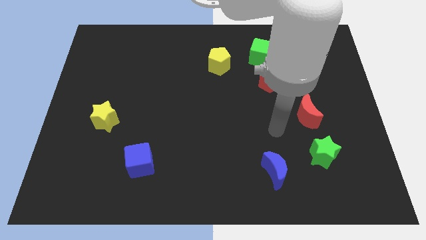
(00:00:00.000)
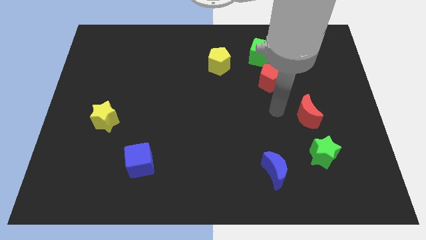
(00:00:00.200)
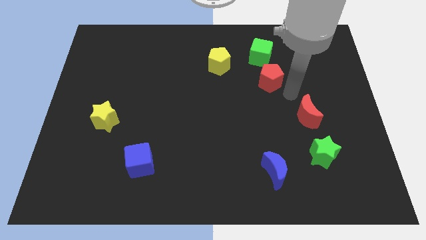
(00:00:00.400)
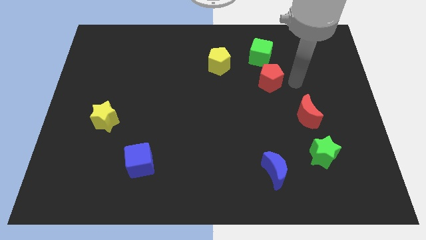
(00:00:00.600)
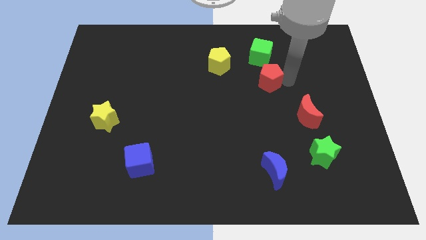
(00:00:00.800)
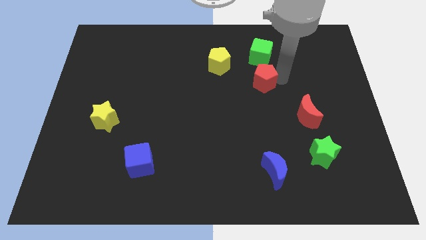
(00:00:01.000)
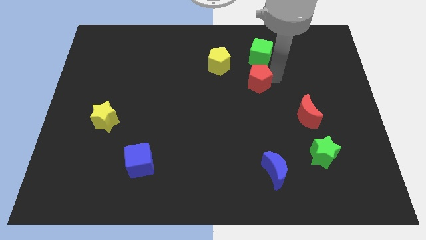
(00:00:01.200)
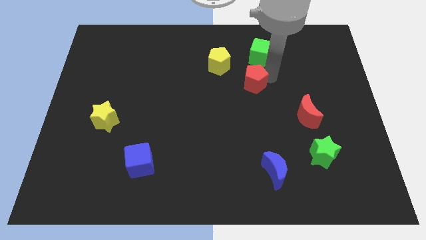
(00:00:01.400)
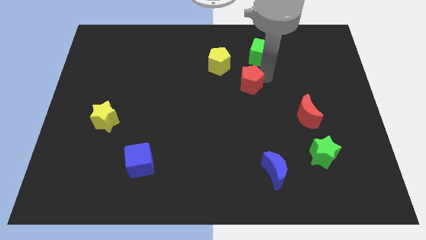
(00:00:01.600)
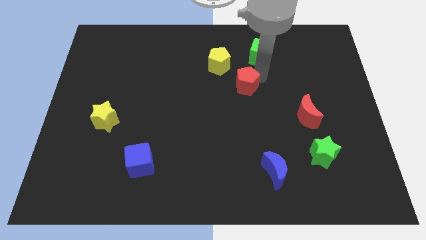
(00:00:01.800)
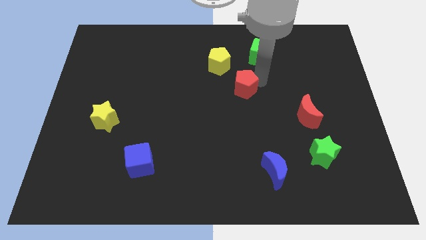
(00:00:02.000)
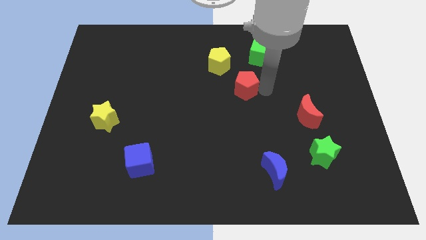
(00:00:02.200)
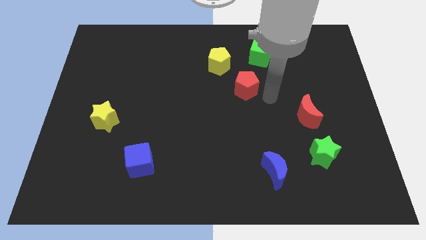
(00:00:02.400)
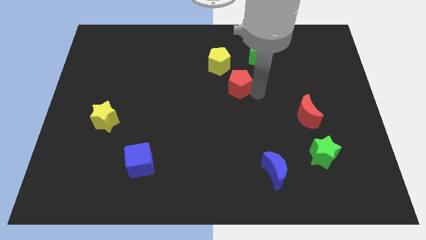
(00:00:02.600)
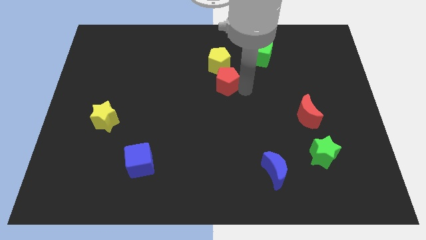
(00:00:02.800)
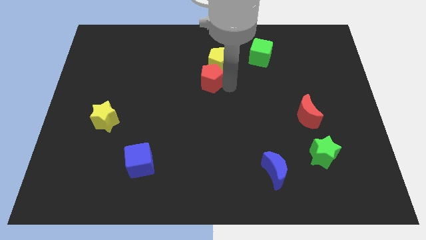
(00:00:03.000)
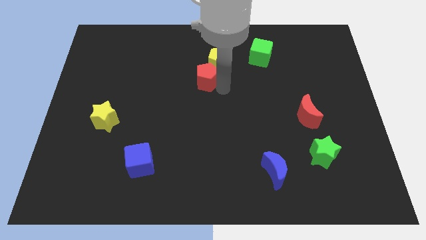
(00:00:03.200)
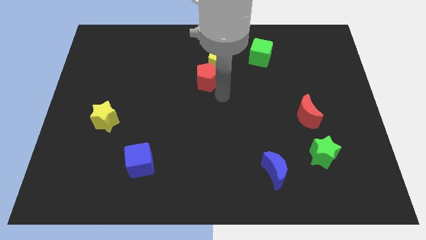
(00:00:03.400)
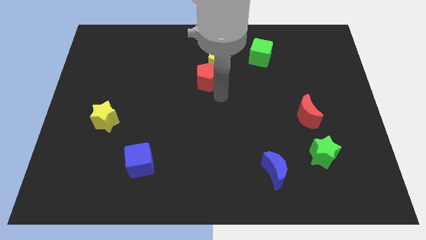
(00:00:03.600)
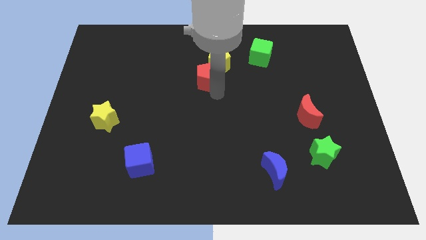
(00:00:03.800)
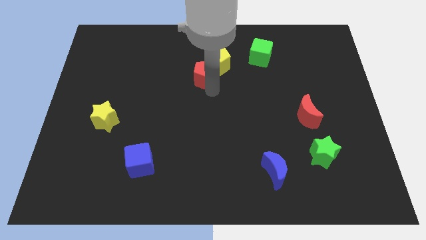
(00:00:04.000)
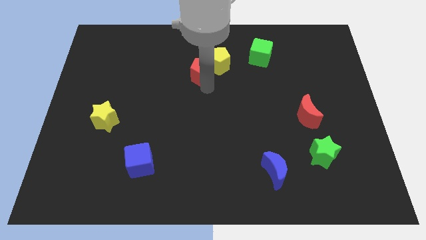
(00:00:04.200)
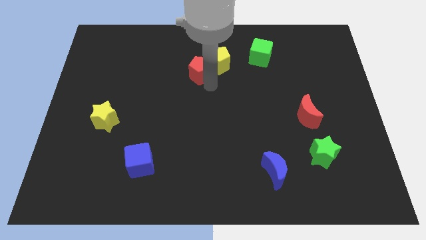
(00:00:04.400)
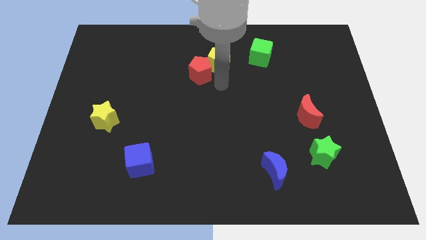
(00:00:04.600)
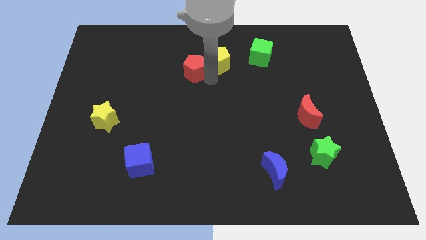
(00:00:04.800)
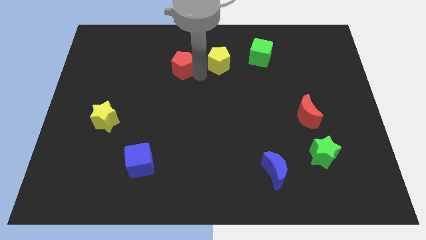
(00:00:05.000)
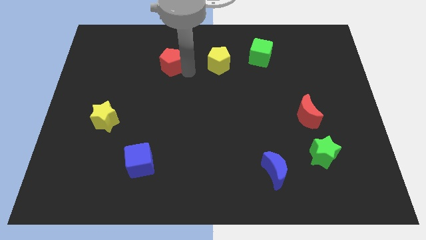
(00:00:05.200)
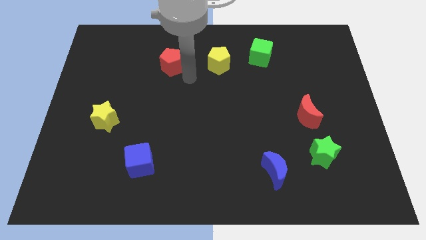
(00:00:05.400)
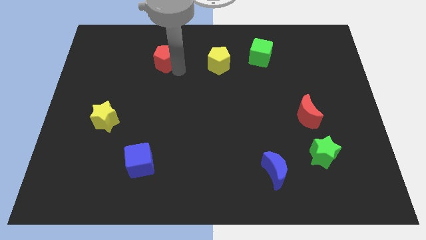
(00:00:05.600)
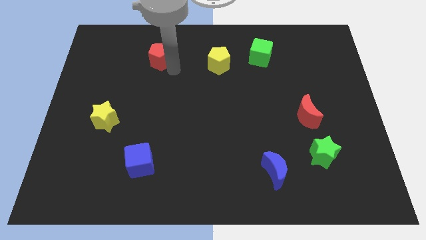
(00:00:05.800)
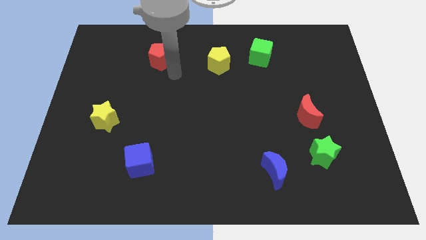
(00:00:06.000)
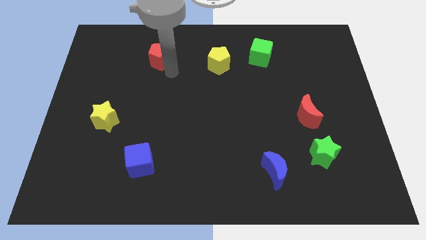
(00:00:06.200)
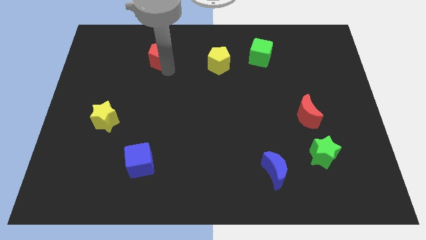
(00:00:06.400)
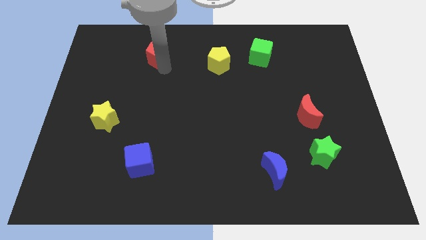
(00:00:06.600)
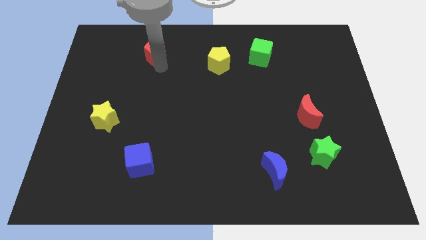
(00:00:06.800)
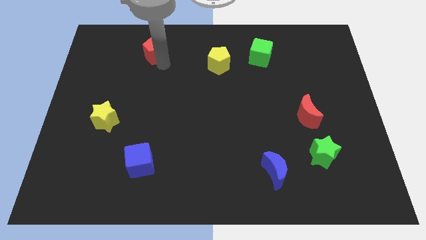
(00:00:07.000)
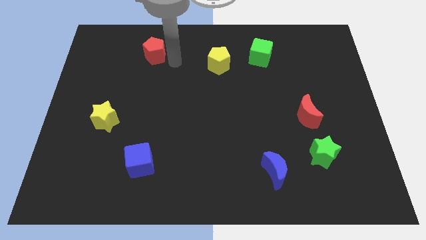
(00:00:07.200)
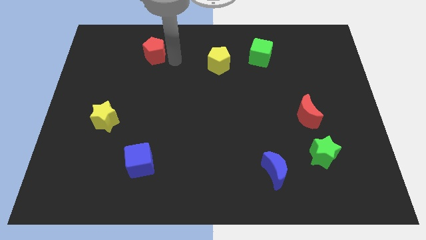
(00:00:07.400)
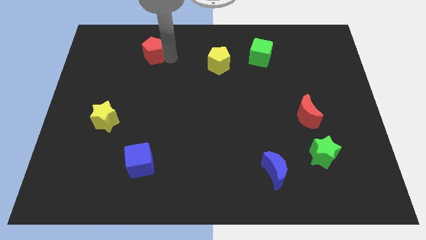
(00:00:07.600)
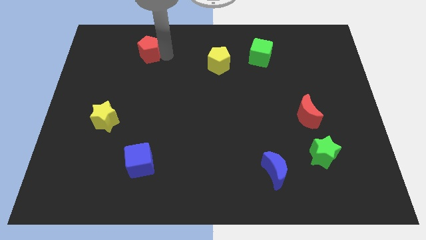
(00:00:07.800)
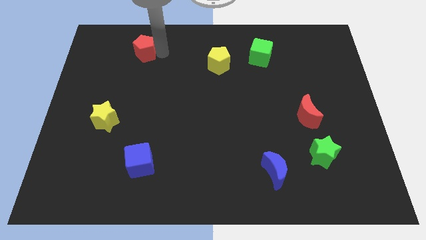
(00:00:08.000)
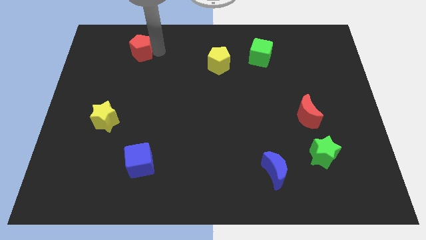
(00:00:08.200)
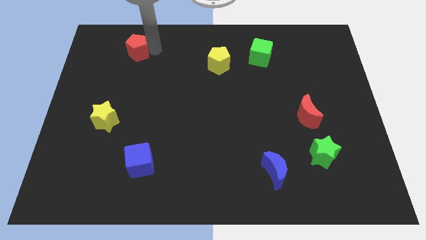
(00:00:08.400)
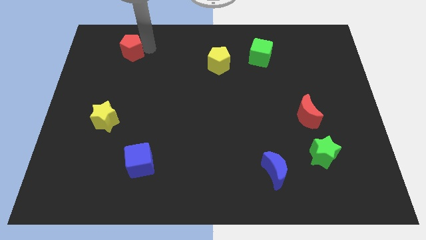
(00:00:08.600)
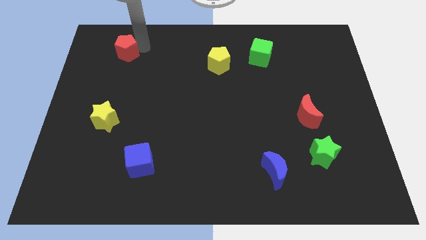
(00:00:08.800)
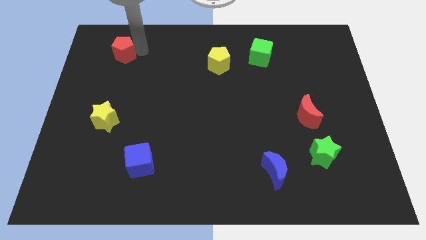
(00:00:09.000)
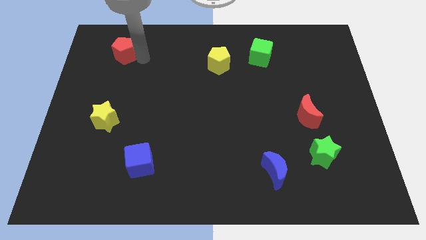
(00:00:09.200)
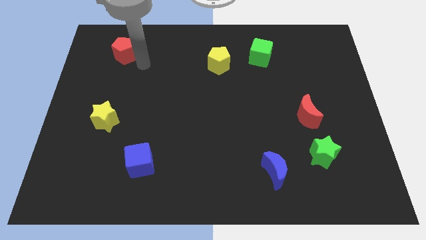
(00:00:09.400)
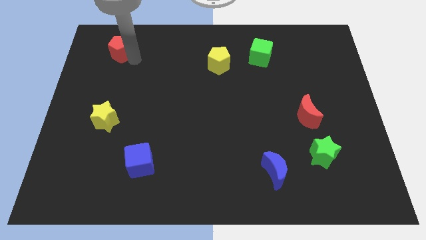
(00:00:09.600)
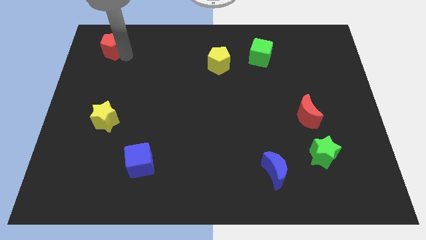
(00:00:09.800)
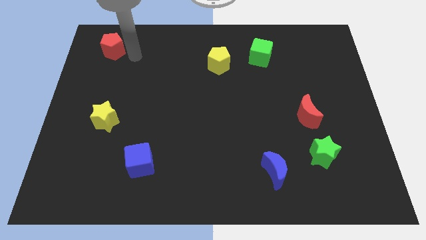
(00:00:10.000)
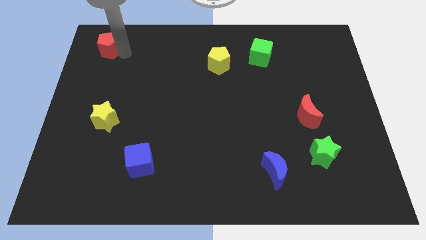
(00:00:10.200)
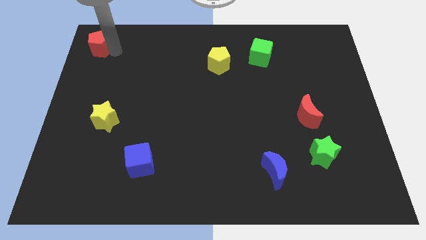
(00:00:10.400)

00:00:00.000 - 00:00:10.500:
slide the red pentagon to the top left of the board

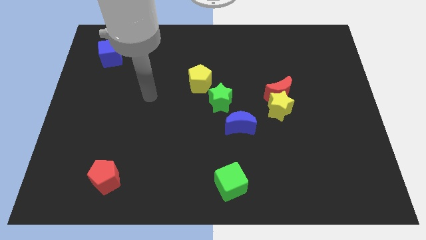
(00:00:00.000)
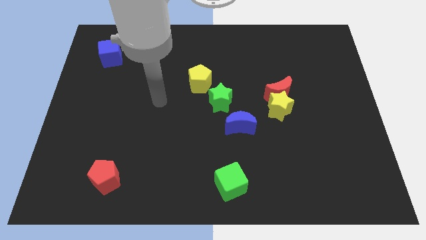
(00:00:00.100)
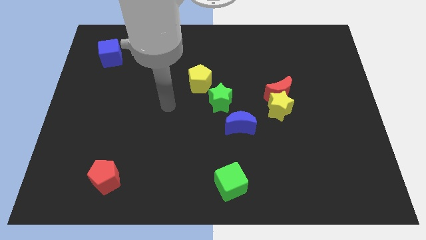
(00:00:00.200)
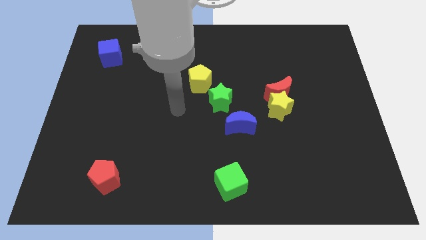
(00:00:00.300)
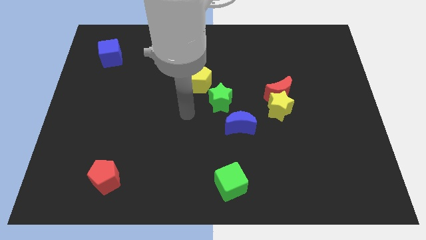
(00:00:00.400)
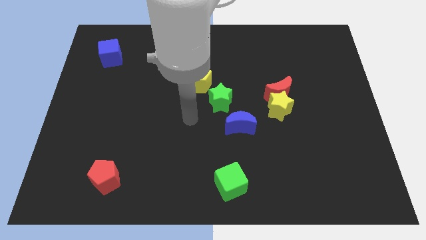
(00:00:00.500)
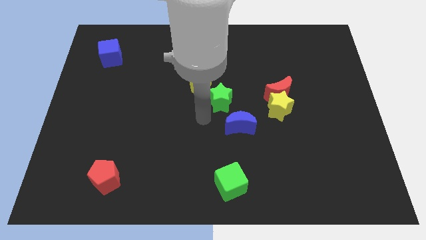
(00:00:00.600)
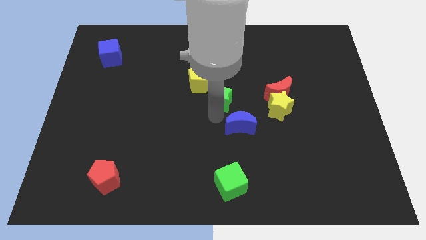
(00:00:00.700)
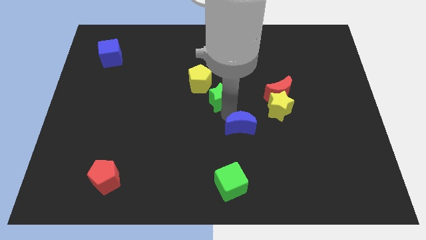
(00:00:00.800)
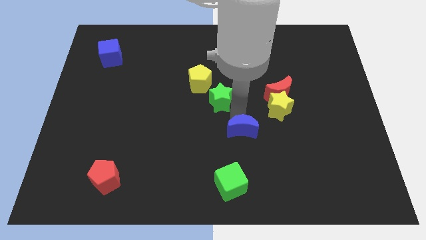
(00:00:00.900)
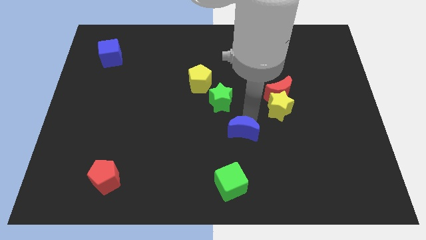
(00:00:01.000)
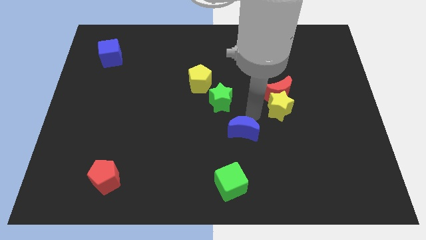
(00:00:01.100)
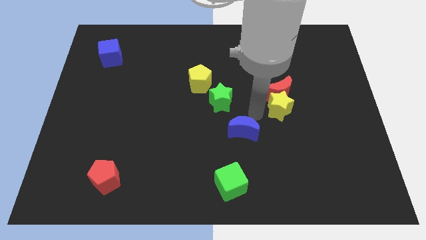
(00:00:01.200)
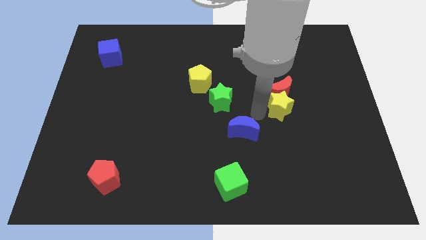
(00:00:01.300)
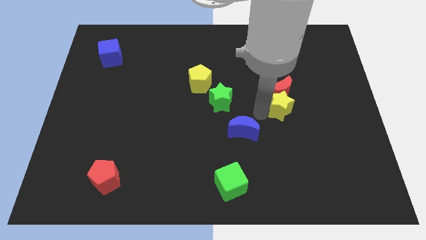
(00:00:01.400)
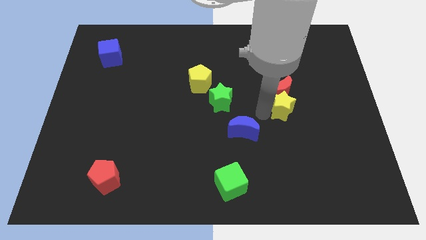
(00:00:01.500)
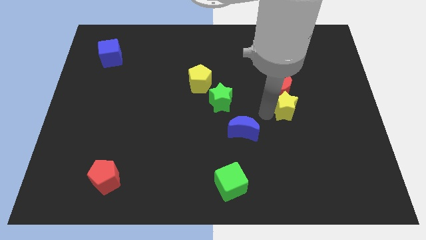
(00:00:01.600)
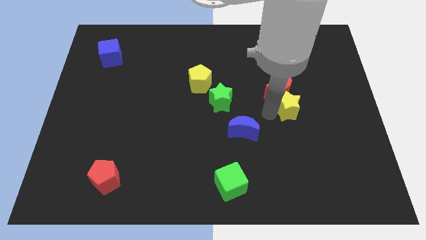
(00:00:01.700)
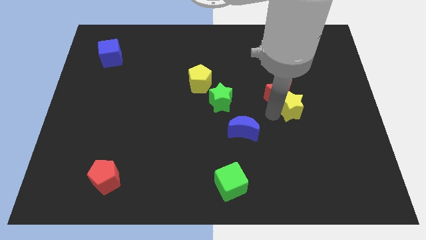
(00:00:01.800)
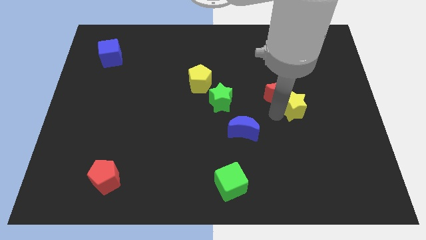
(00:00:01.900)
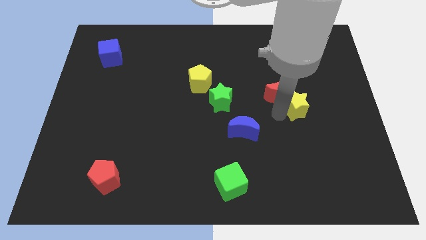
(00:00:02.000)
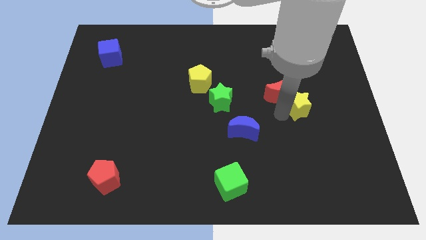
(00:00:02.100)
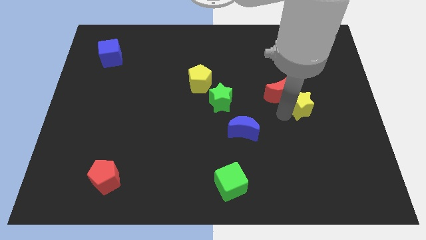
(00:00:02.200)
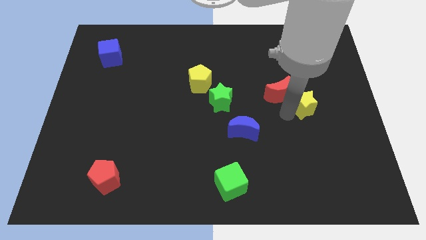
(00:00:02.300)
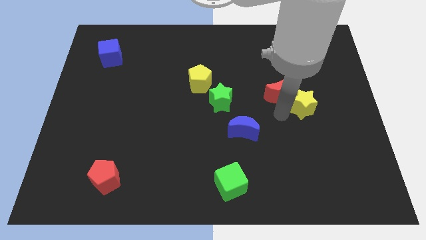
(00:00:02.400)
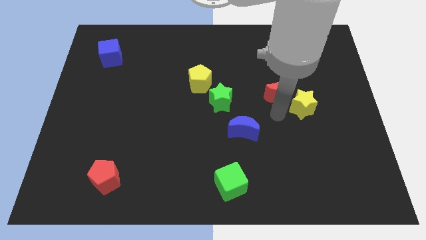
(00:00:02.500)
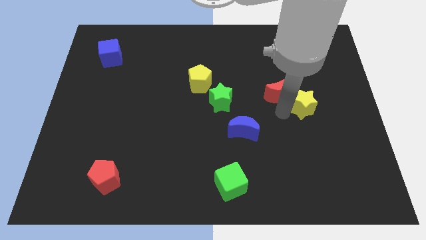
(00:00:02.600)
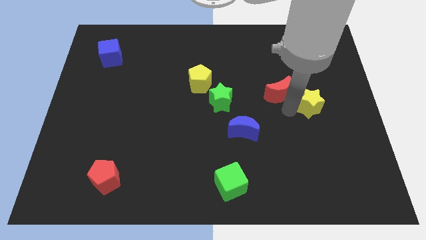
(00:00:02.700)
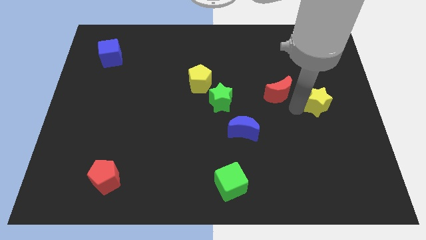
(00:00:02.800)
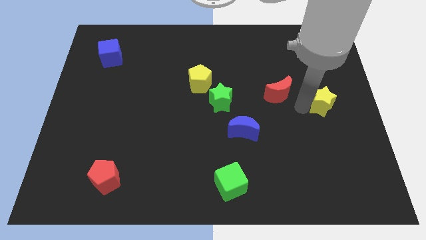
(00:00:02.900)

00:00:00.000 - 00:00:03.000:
slide the yellow star to the right side
